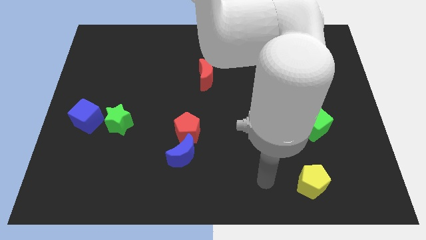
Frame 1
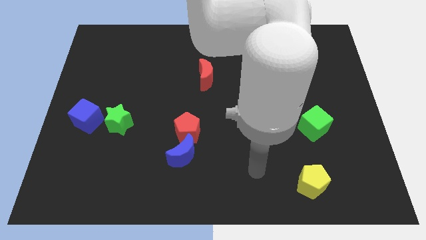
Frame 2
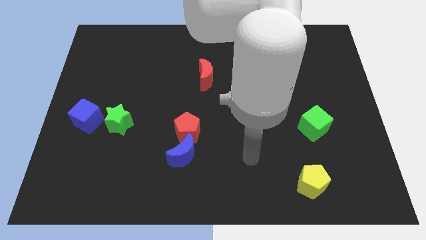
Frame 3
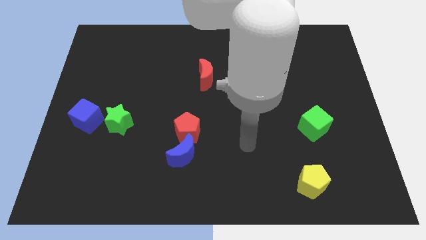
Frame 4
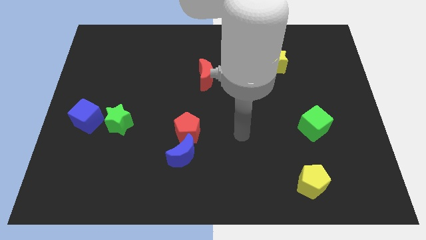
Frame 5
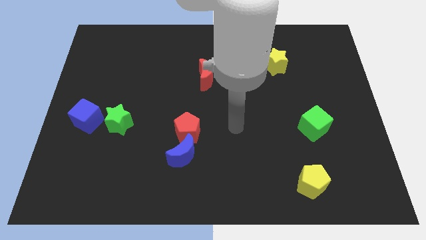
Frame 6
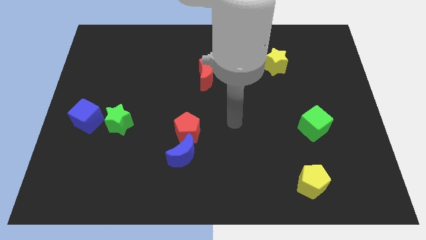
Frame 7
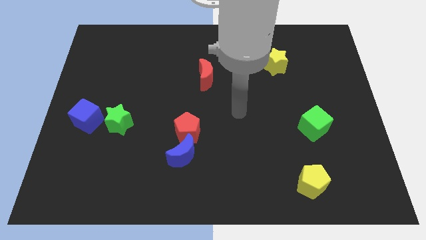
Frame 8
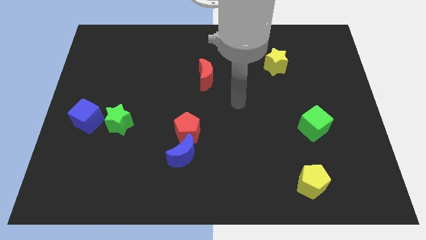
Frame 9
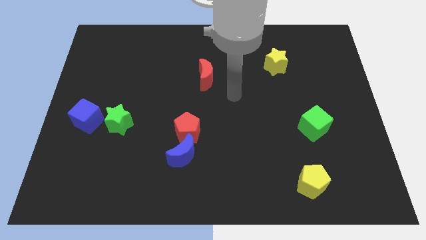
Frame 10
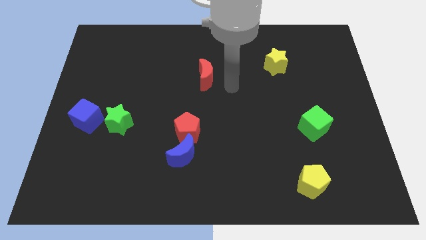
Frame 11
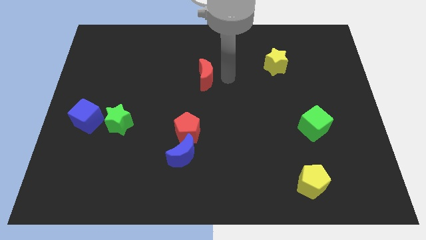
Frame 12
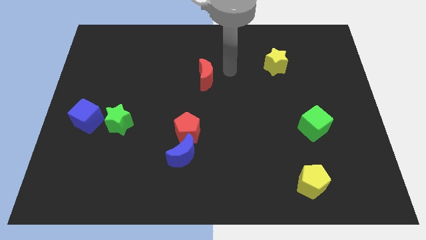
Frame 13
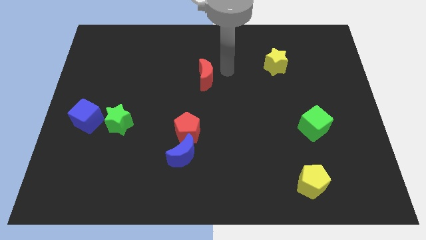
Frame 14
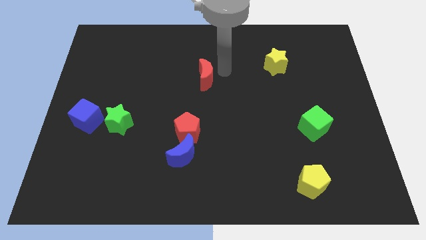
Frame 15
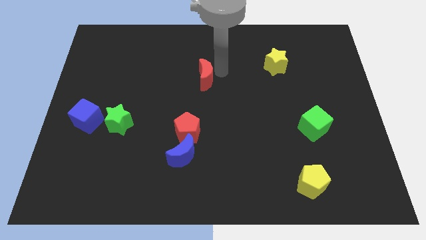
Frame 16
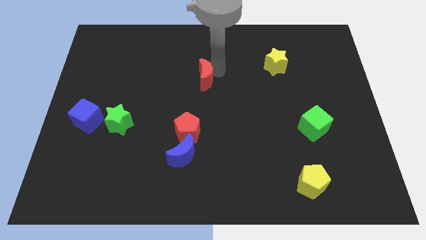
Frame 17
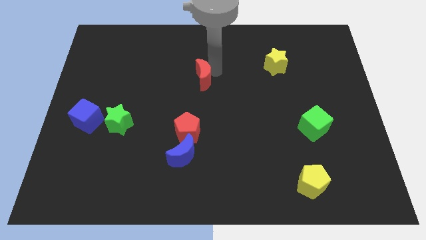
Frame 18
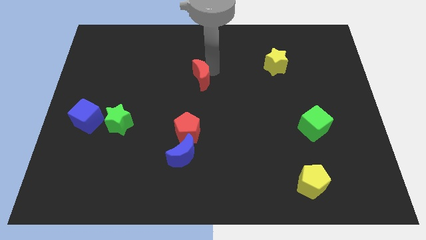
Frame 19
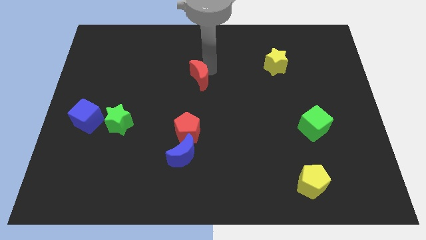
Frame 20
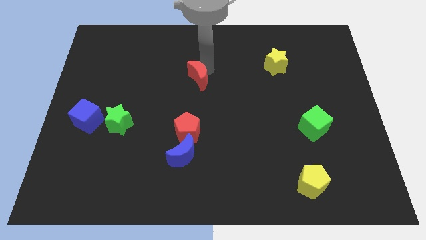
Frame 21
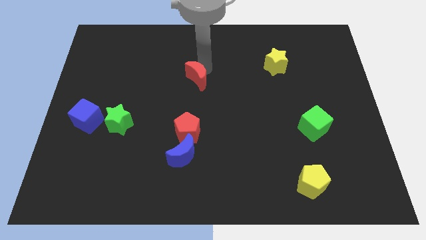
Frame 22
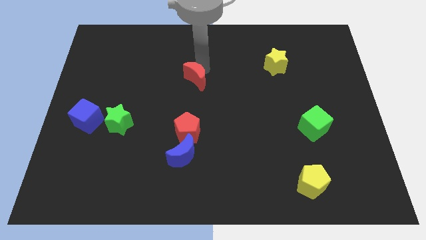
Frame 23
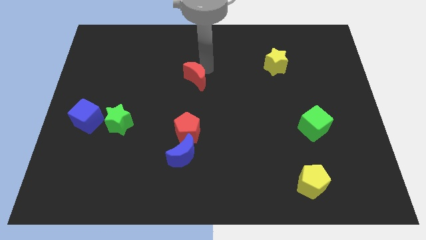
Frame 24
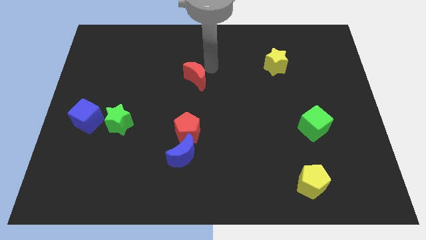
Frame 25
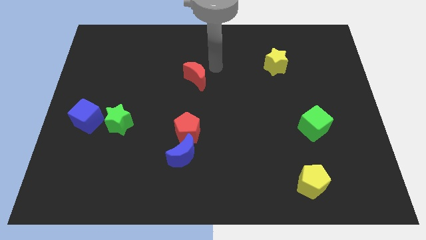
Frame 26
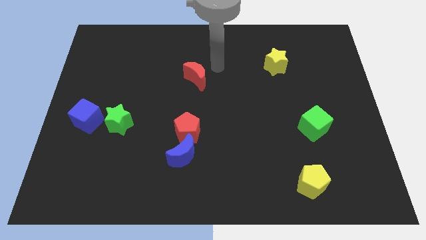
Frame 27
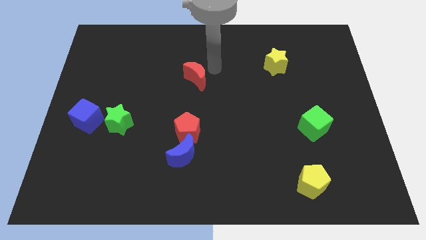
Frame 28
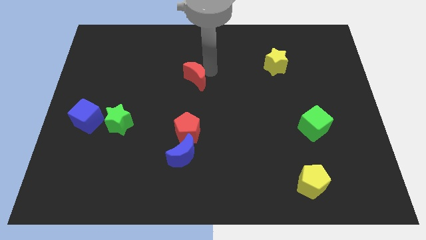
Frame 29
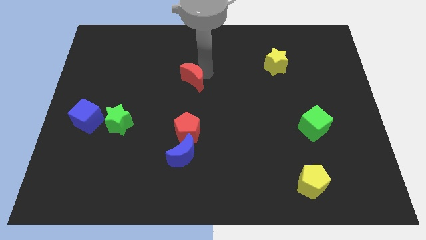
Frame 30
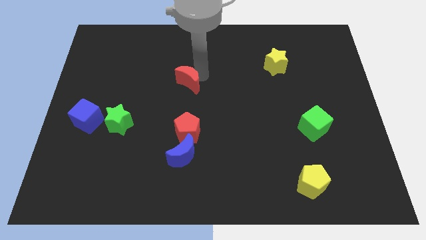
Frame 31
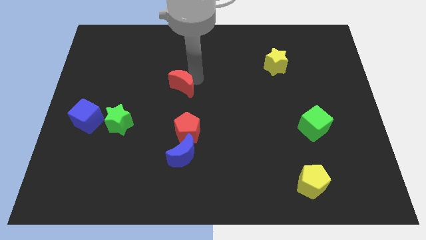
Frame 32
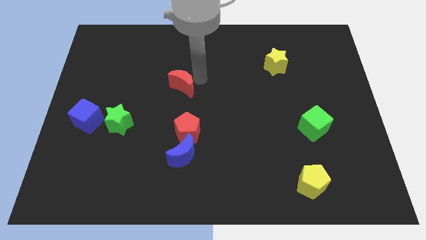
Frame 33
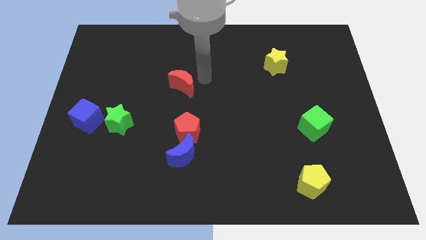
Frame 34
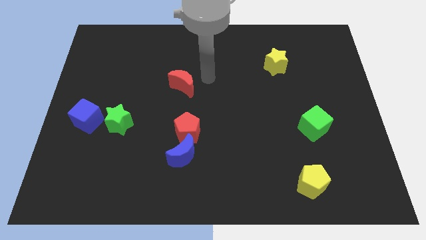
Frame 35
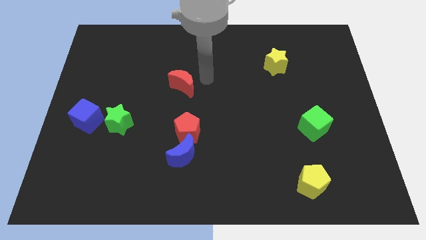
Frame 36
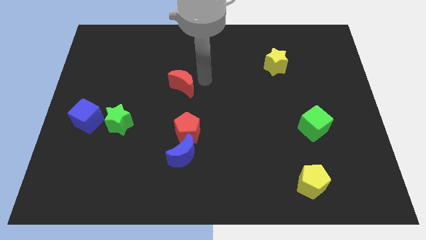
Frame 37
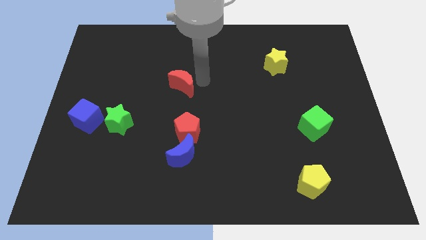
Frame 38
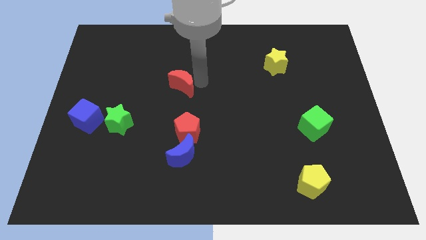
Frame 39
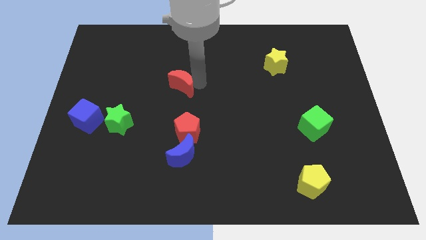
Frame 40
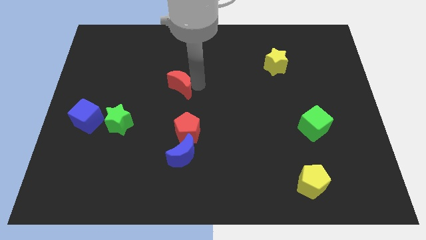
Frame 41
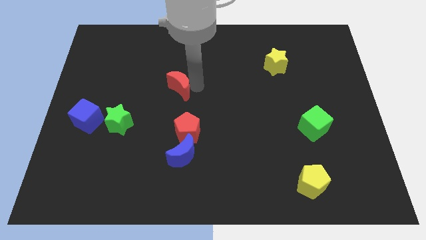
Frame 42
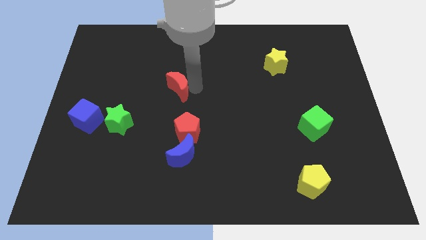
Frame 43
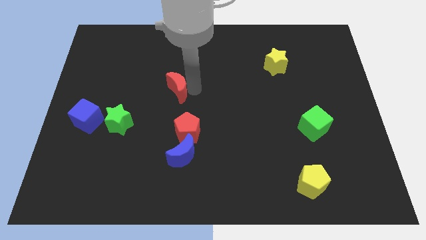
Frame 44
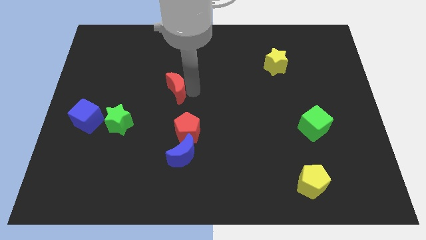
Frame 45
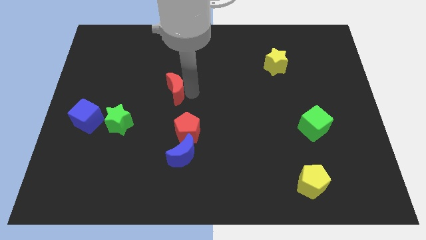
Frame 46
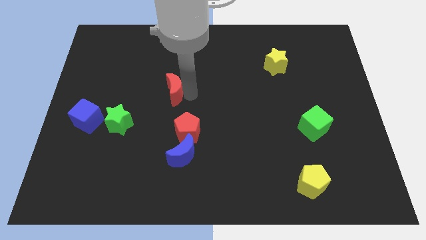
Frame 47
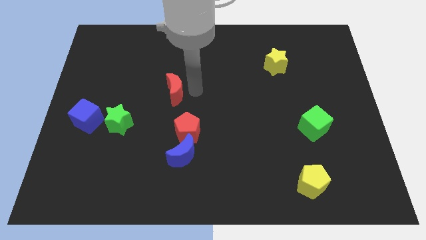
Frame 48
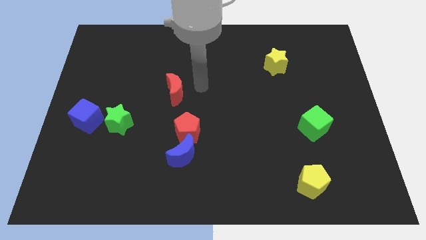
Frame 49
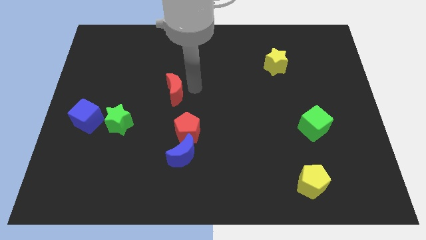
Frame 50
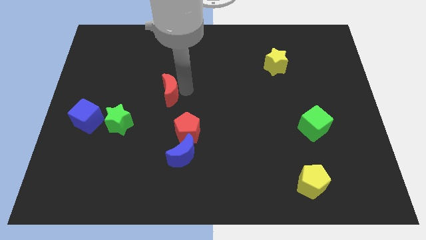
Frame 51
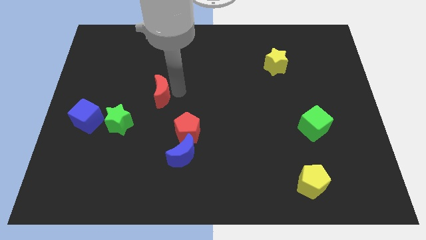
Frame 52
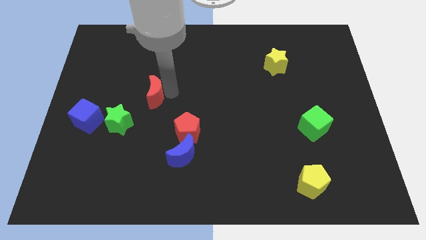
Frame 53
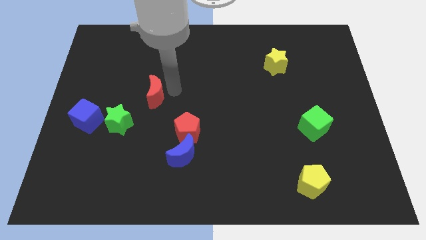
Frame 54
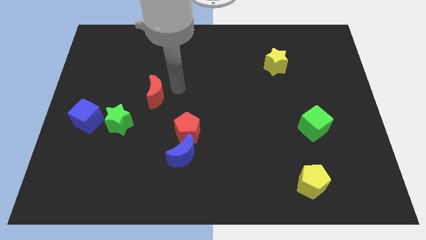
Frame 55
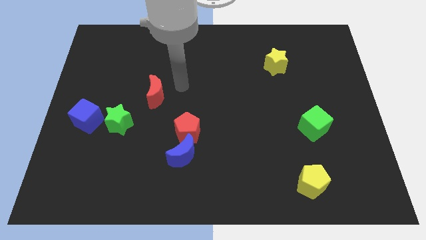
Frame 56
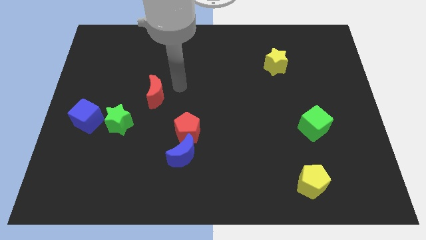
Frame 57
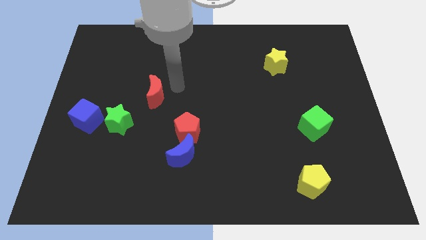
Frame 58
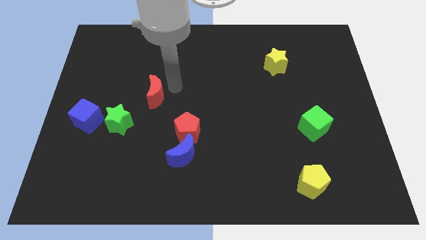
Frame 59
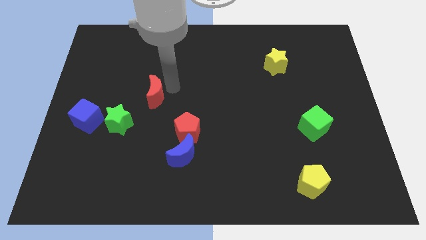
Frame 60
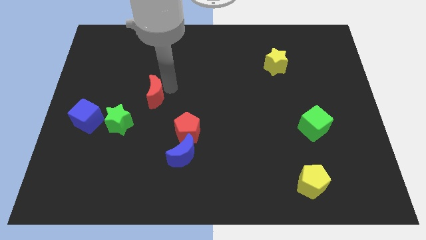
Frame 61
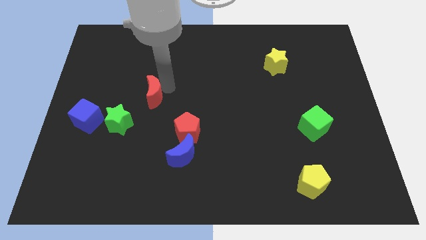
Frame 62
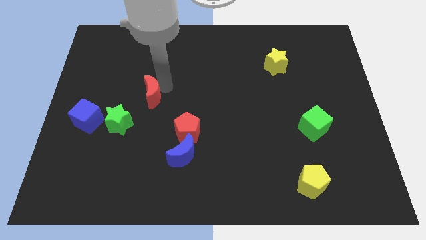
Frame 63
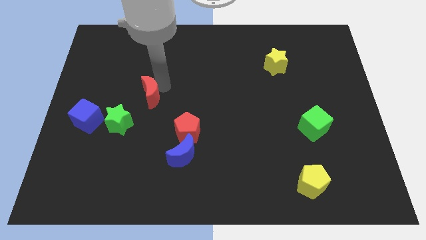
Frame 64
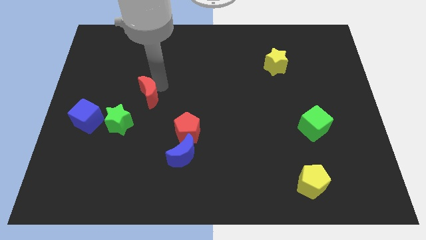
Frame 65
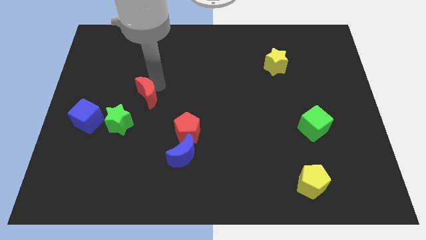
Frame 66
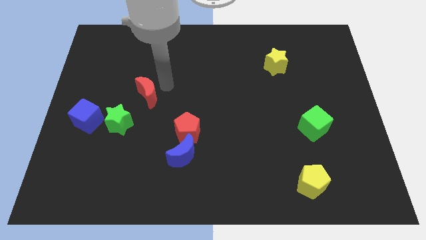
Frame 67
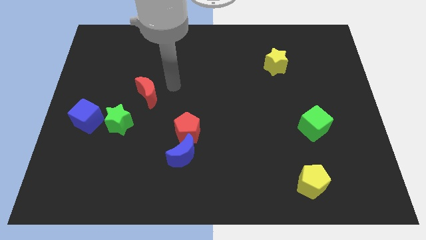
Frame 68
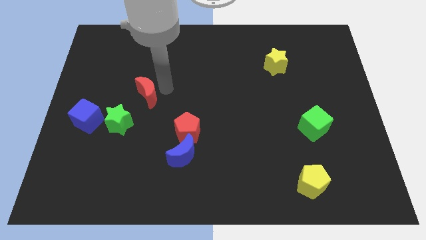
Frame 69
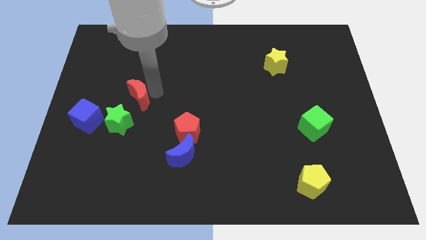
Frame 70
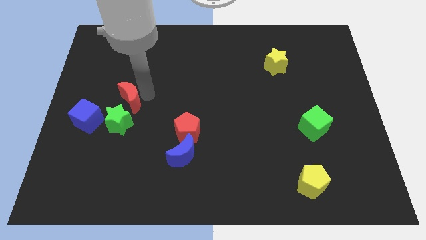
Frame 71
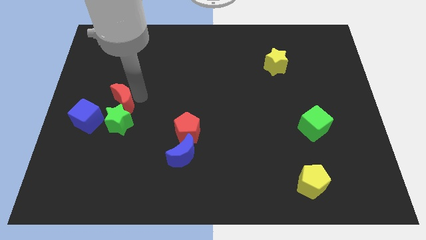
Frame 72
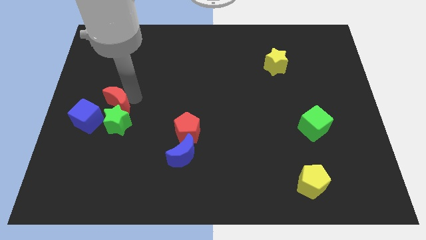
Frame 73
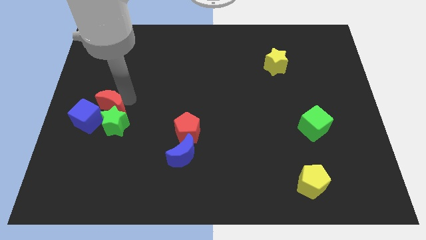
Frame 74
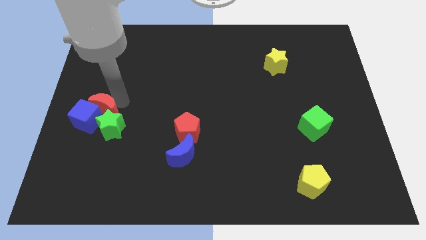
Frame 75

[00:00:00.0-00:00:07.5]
push the red moon to the blue cube

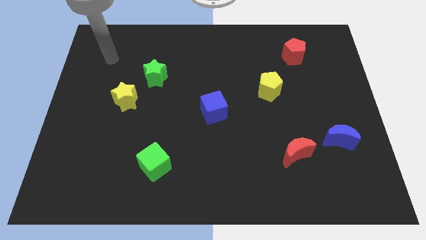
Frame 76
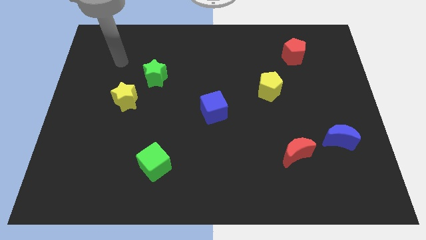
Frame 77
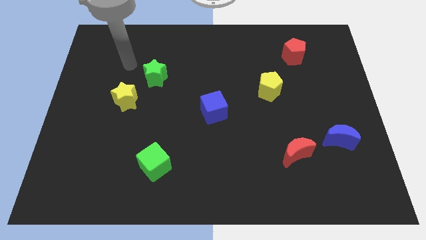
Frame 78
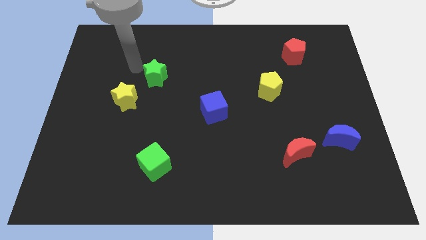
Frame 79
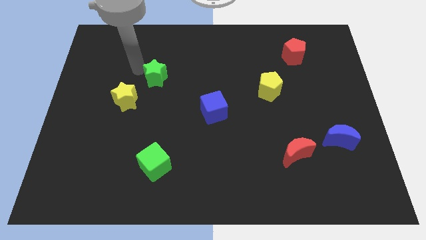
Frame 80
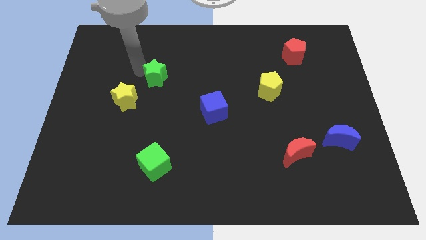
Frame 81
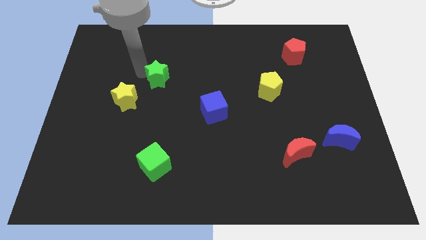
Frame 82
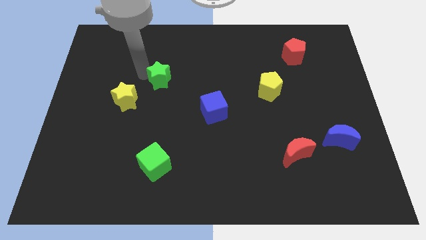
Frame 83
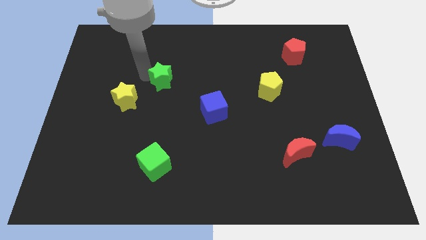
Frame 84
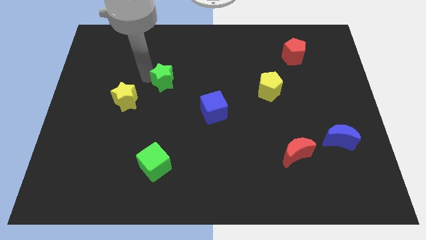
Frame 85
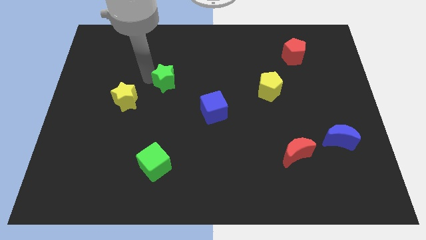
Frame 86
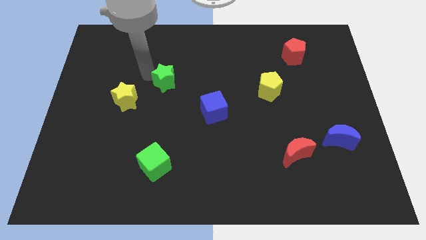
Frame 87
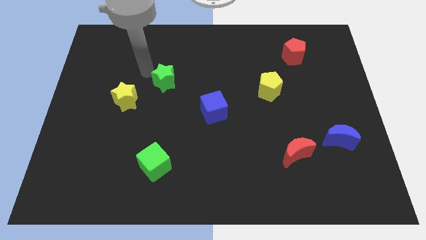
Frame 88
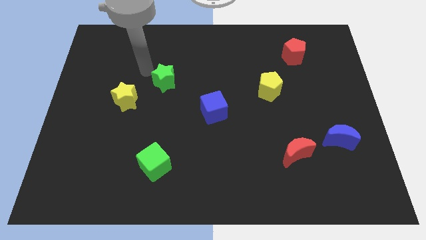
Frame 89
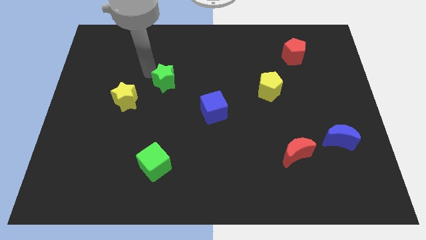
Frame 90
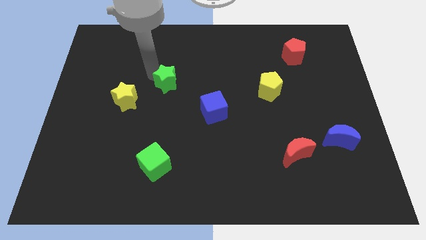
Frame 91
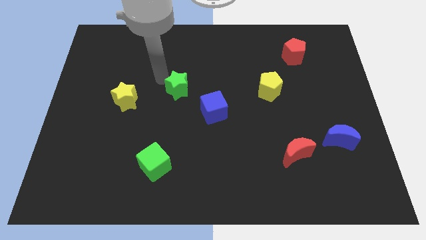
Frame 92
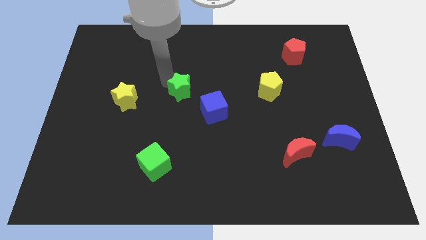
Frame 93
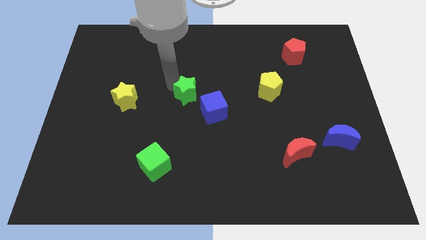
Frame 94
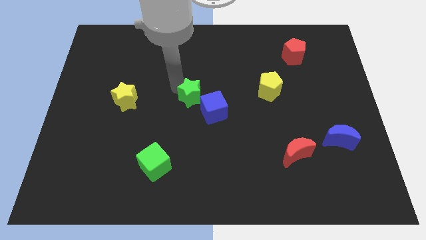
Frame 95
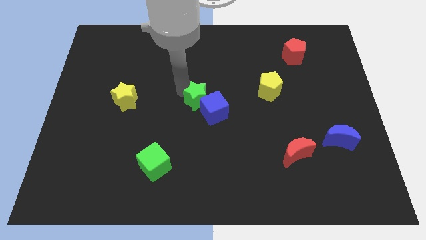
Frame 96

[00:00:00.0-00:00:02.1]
put the green star close to the blue cube
